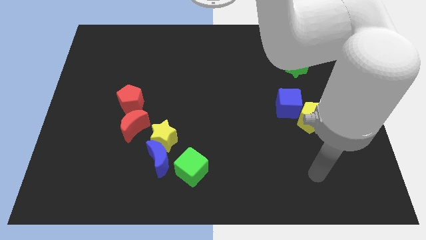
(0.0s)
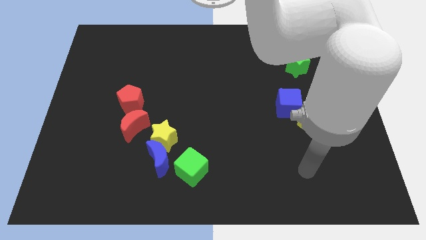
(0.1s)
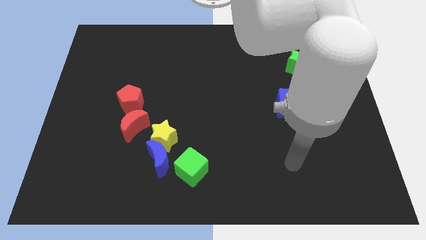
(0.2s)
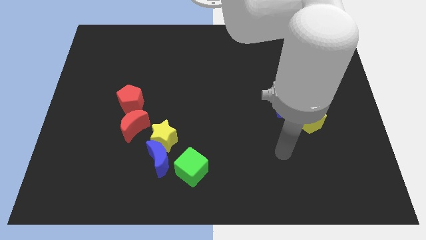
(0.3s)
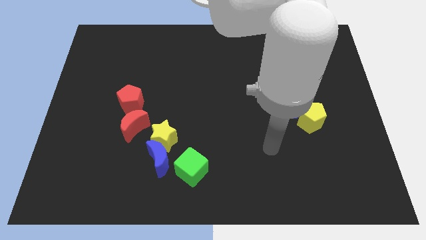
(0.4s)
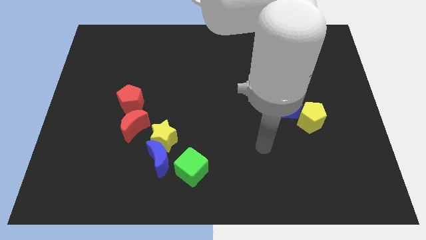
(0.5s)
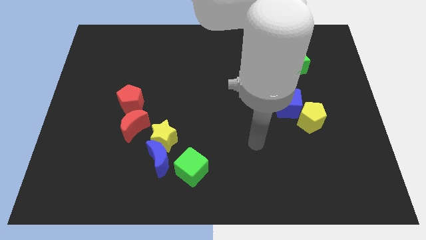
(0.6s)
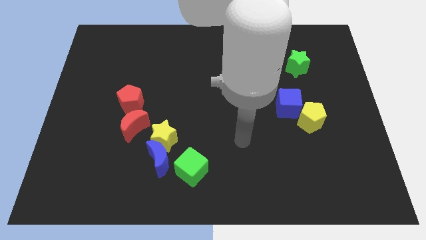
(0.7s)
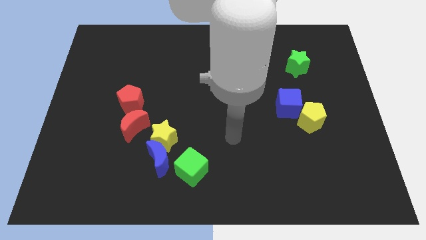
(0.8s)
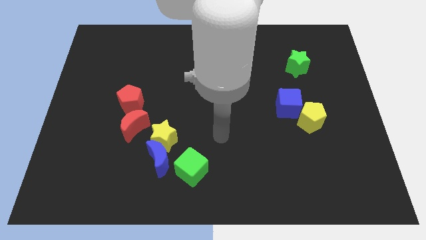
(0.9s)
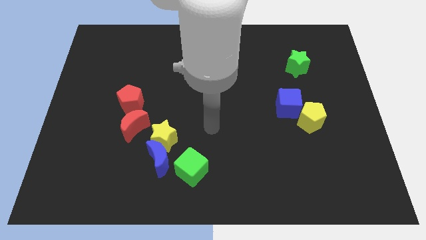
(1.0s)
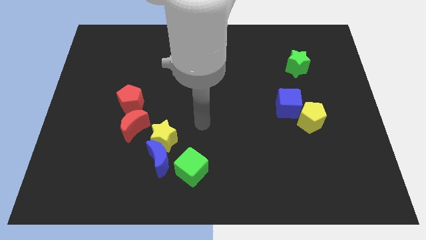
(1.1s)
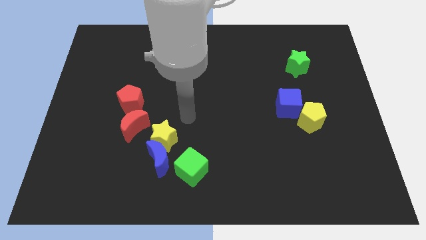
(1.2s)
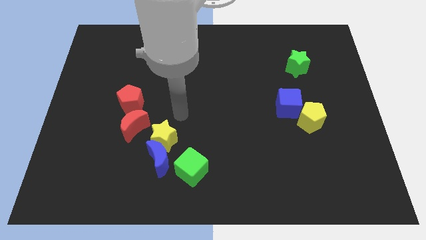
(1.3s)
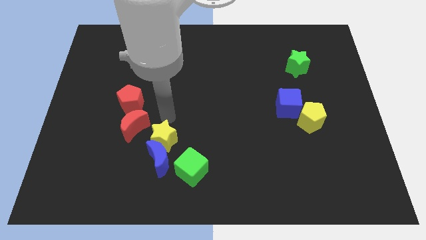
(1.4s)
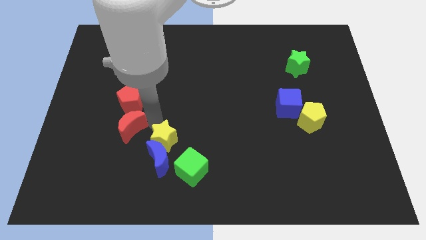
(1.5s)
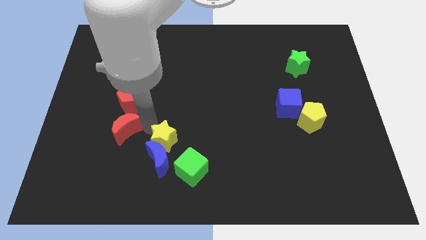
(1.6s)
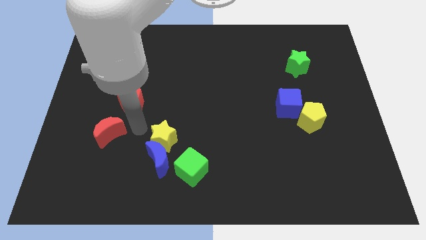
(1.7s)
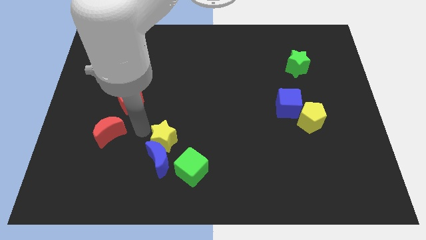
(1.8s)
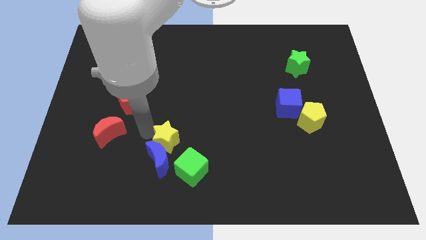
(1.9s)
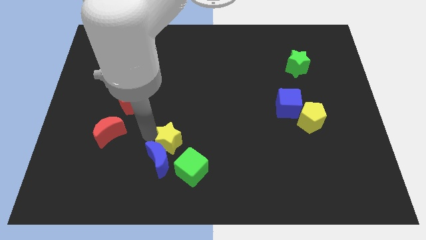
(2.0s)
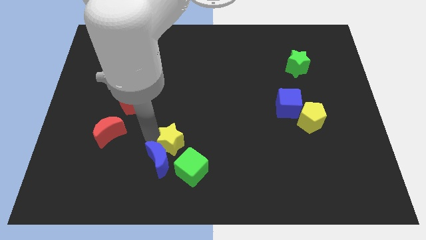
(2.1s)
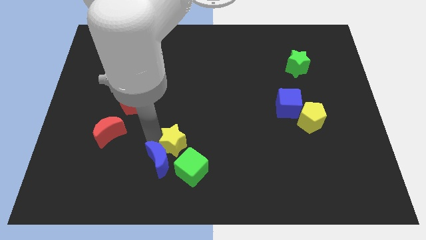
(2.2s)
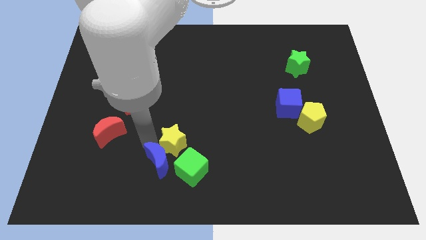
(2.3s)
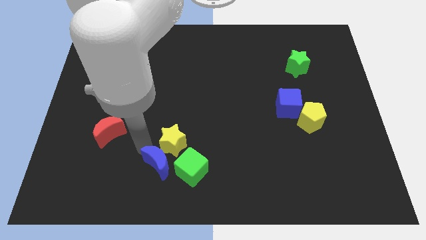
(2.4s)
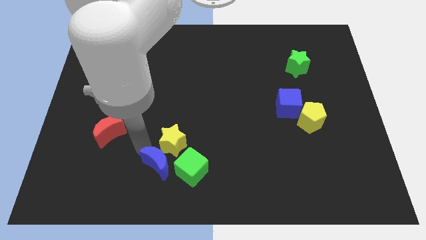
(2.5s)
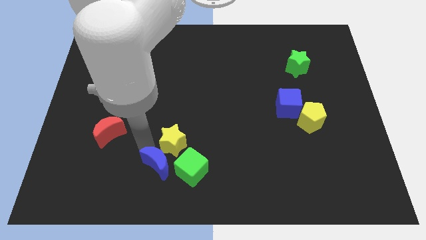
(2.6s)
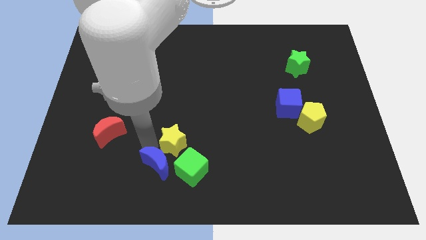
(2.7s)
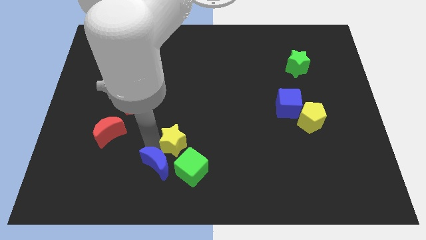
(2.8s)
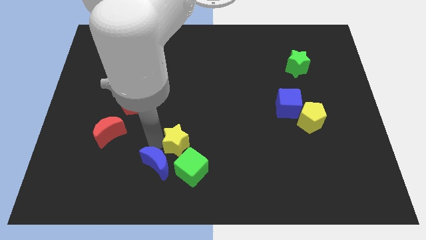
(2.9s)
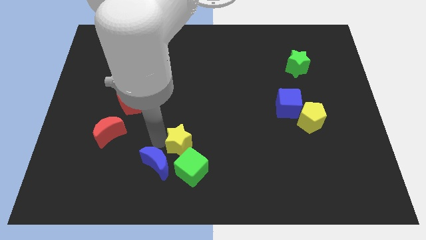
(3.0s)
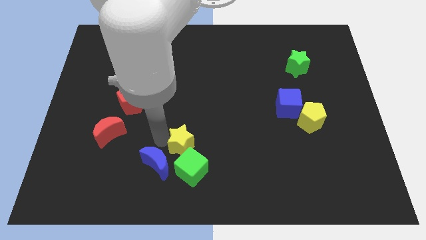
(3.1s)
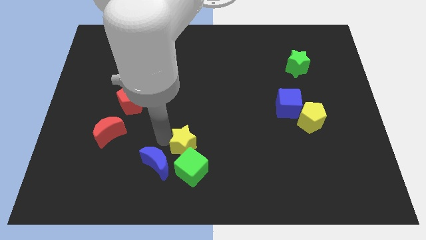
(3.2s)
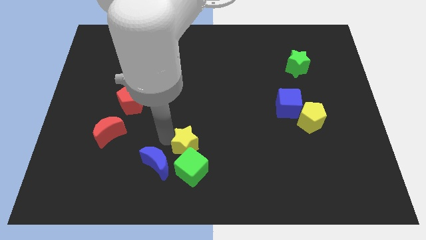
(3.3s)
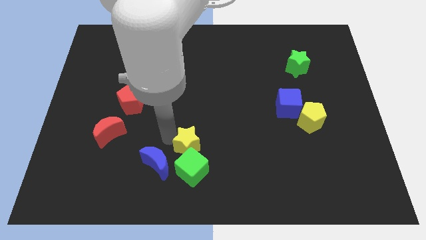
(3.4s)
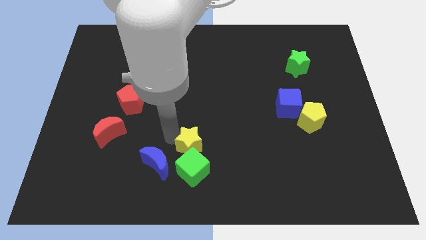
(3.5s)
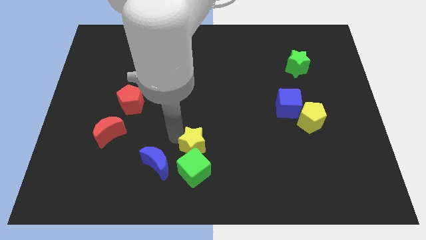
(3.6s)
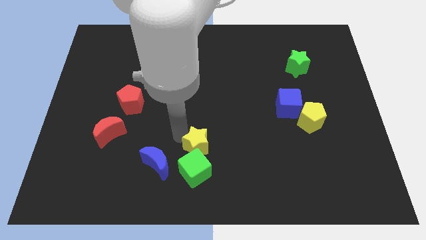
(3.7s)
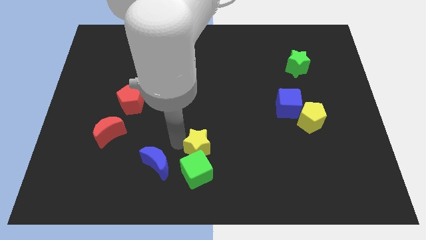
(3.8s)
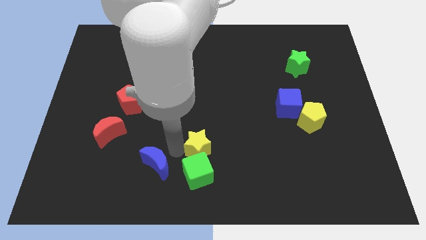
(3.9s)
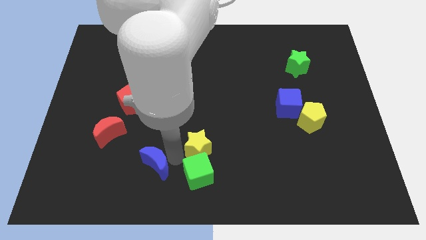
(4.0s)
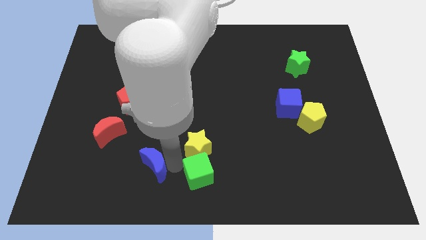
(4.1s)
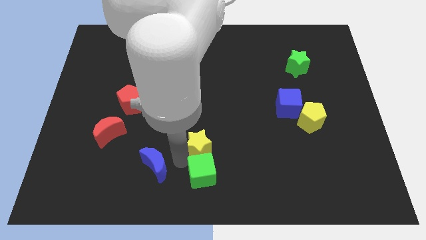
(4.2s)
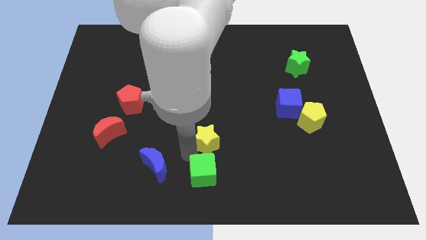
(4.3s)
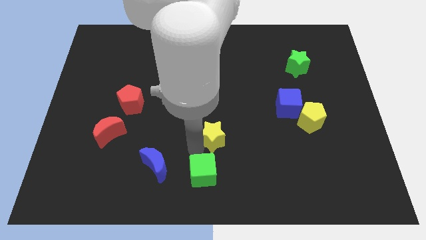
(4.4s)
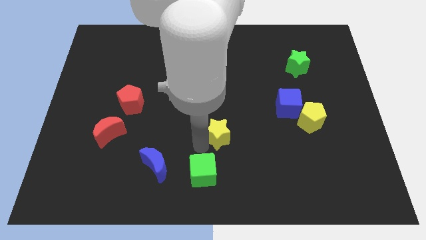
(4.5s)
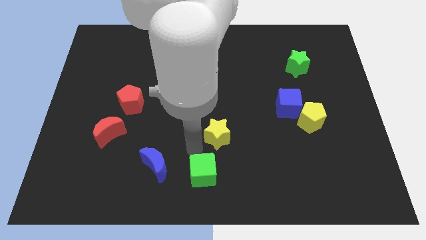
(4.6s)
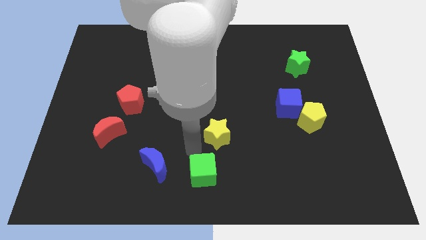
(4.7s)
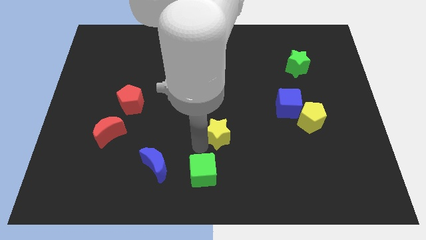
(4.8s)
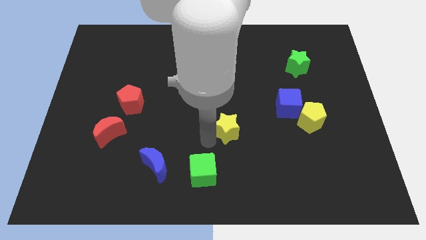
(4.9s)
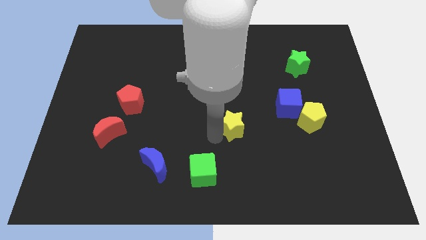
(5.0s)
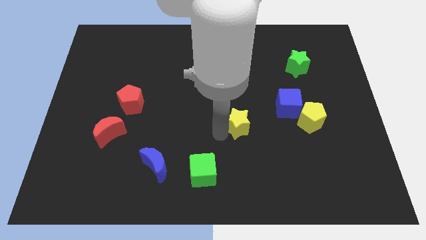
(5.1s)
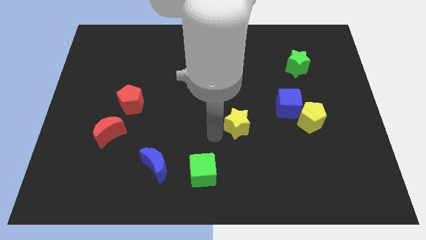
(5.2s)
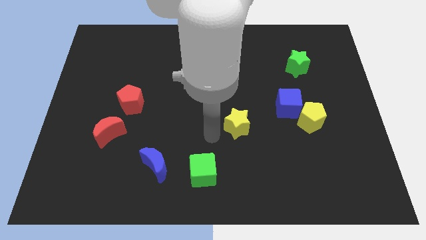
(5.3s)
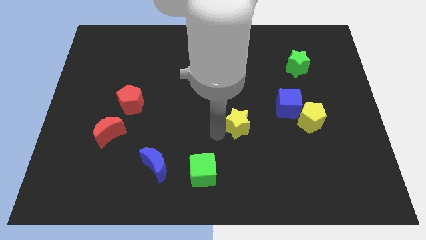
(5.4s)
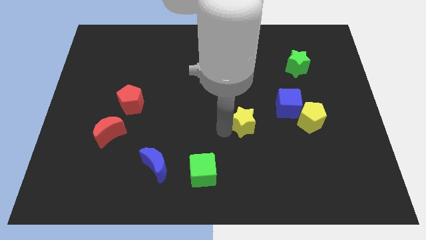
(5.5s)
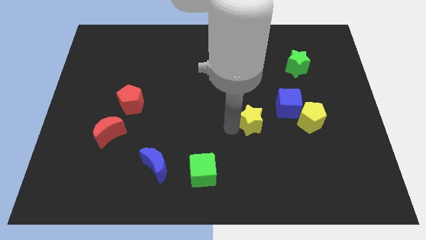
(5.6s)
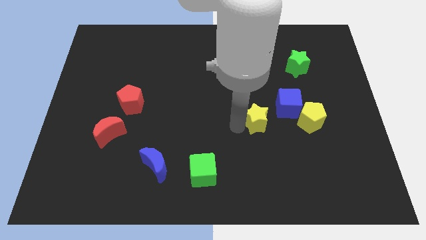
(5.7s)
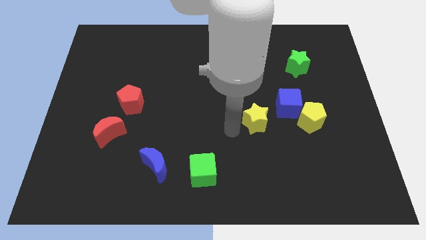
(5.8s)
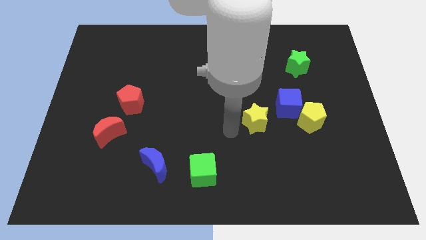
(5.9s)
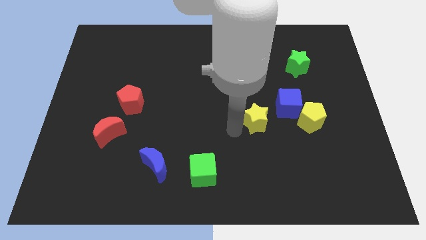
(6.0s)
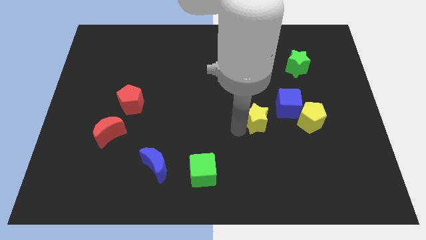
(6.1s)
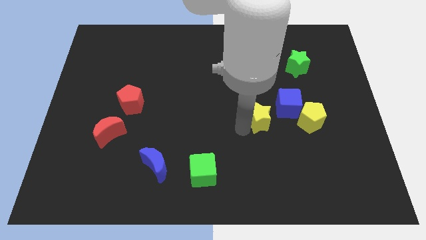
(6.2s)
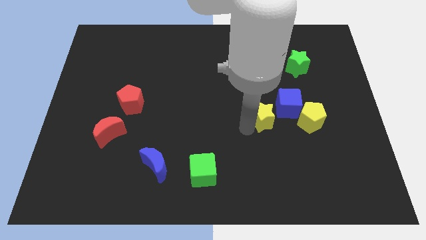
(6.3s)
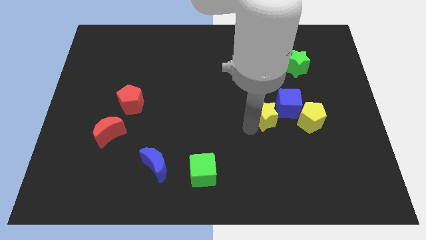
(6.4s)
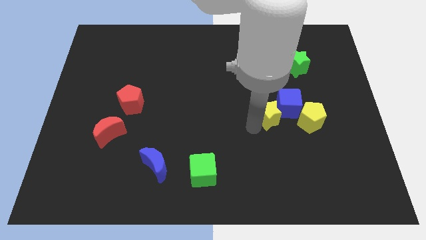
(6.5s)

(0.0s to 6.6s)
slide the yellow star to the blue cube

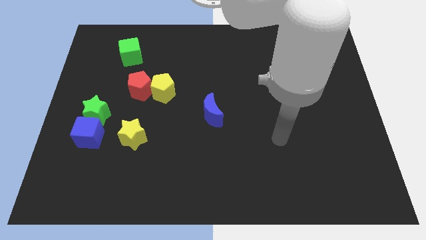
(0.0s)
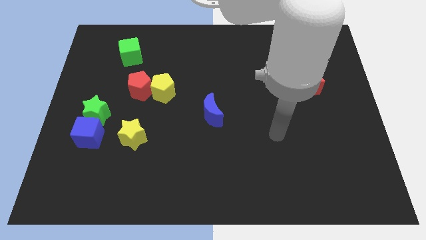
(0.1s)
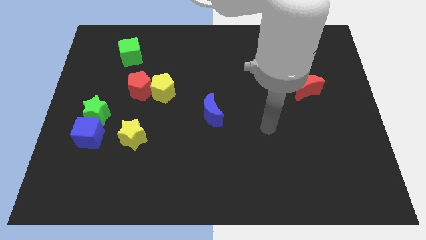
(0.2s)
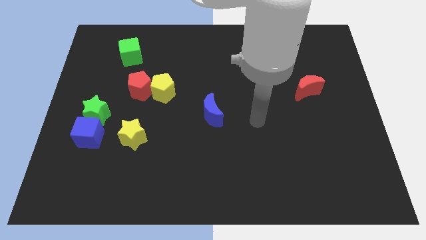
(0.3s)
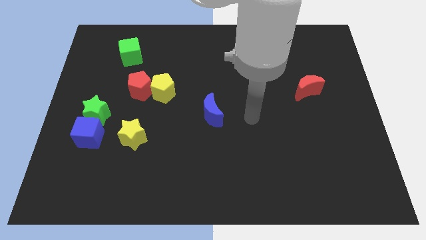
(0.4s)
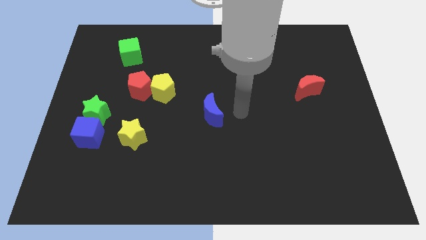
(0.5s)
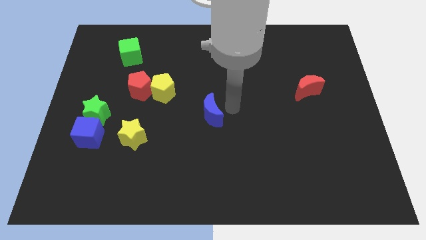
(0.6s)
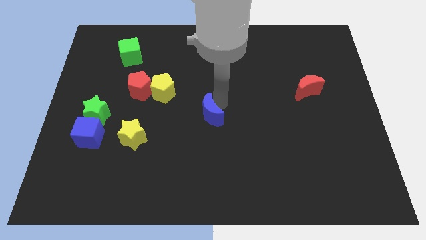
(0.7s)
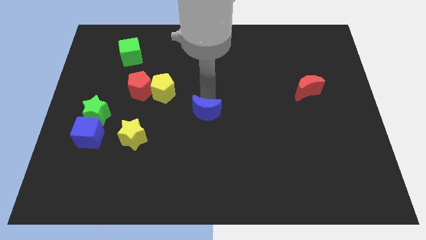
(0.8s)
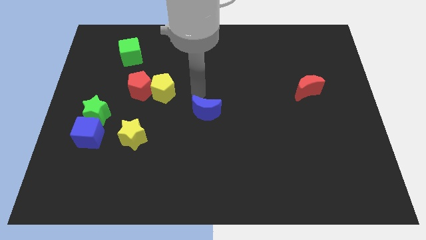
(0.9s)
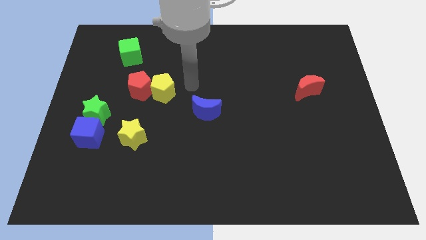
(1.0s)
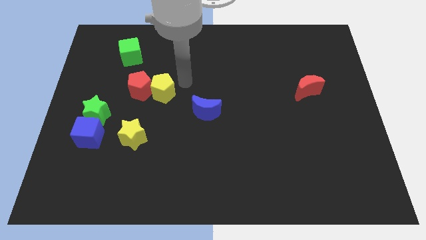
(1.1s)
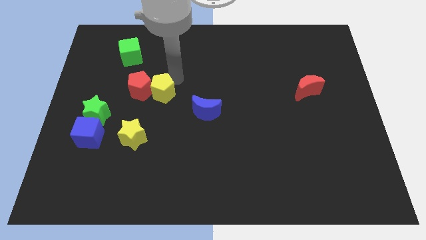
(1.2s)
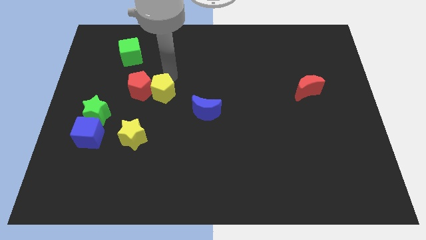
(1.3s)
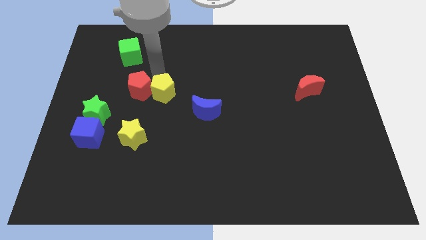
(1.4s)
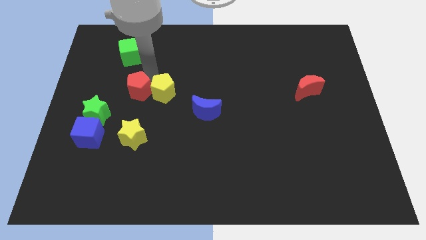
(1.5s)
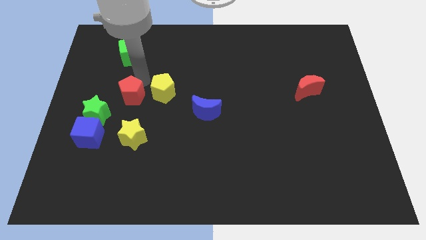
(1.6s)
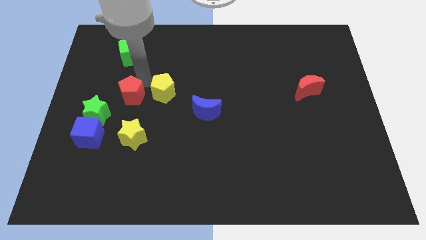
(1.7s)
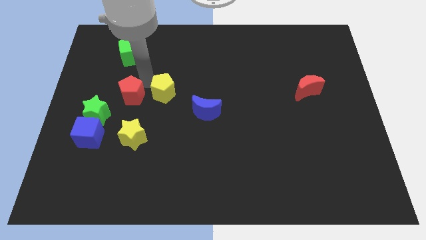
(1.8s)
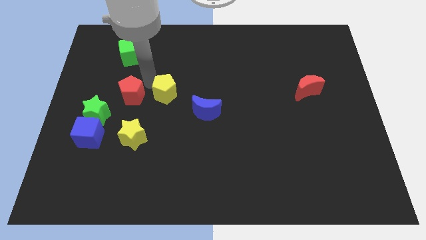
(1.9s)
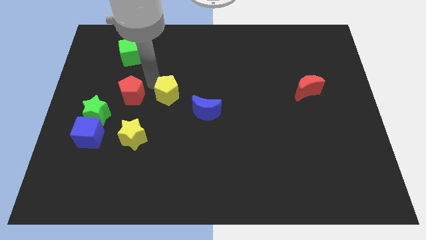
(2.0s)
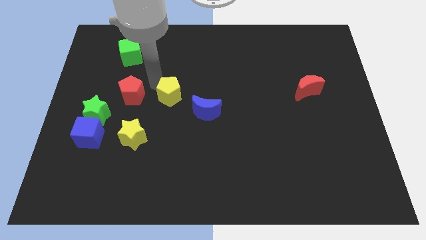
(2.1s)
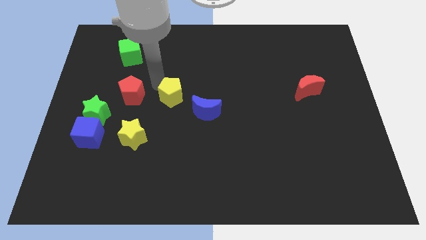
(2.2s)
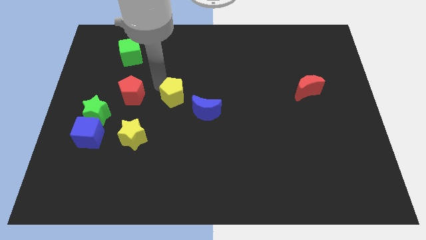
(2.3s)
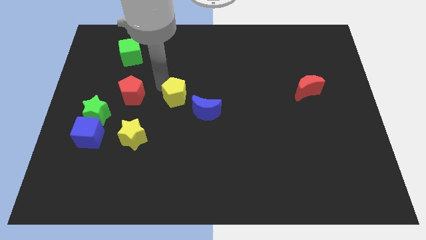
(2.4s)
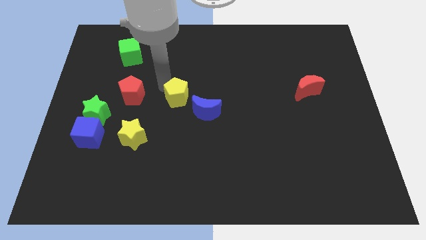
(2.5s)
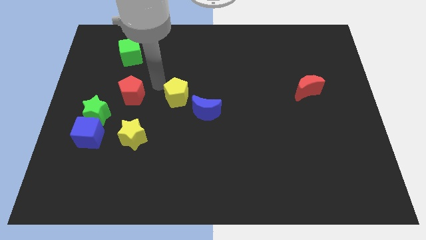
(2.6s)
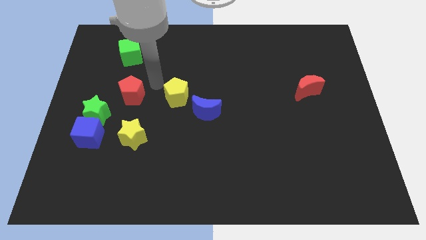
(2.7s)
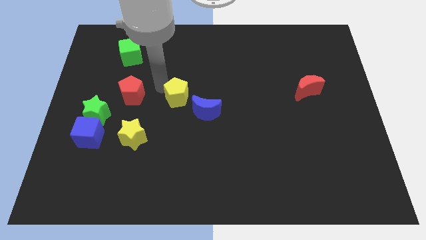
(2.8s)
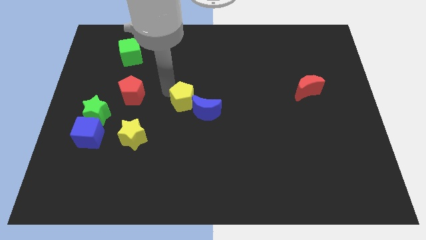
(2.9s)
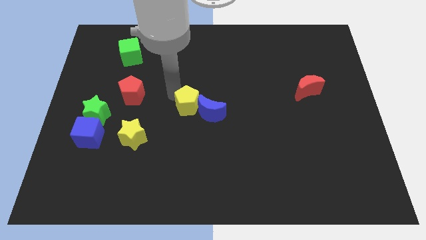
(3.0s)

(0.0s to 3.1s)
slide the yellow pentagon to the blue moon
